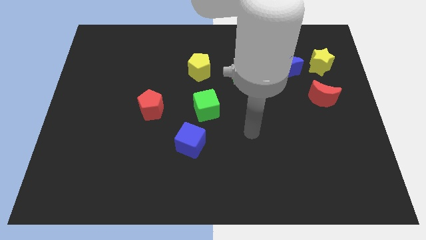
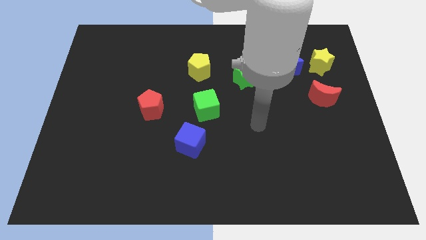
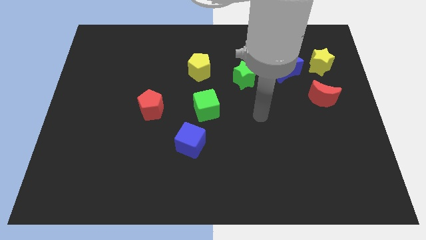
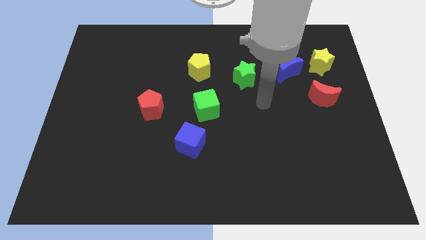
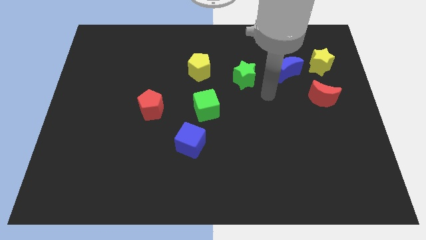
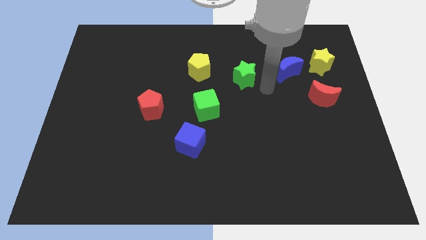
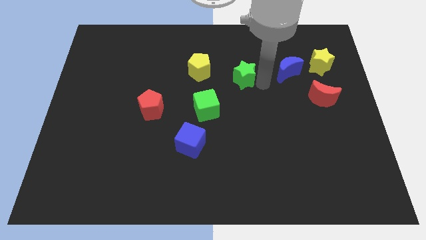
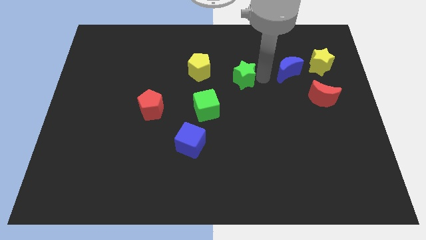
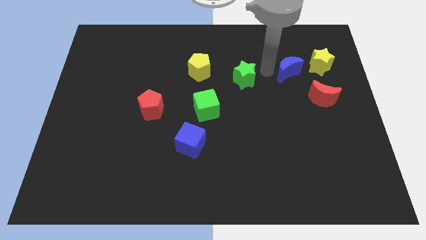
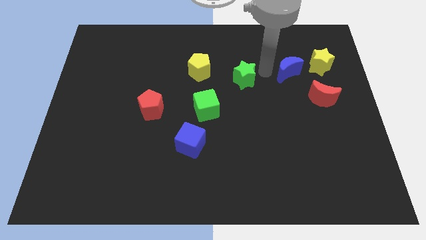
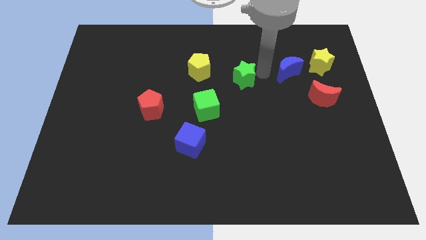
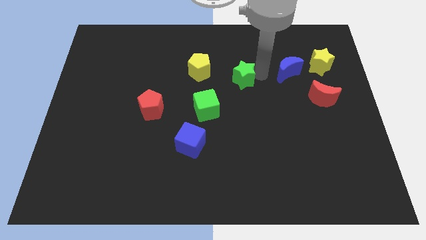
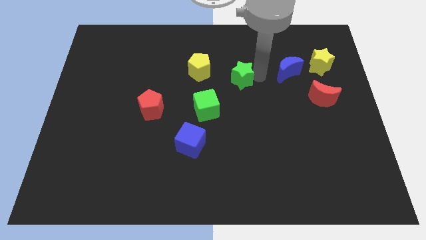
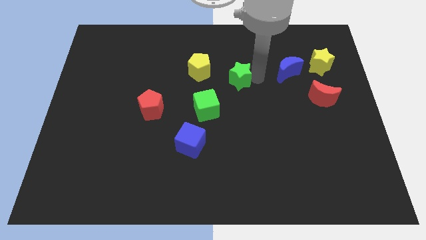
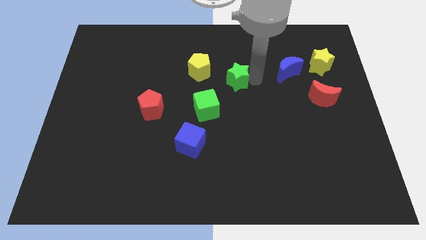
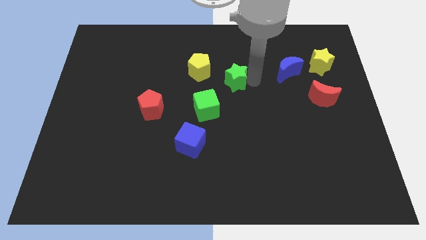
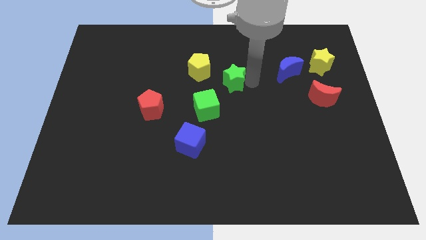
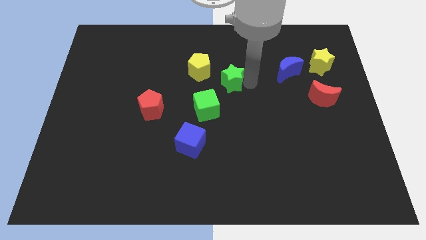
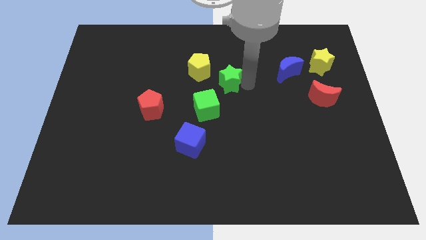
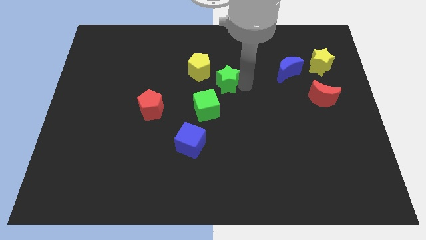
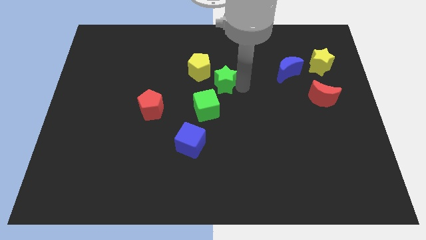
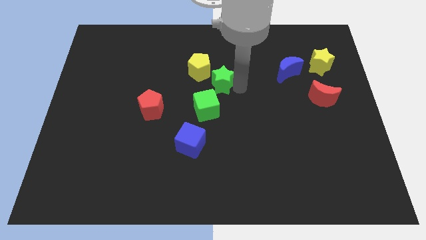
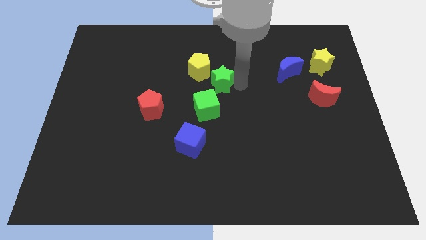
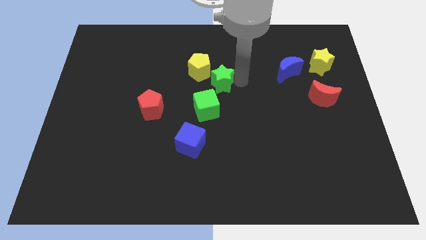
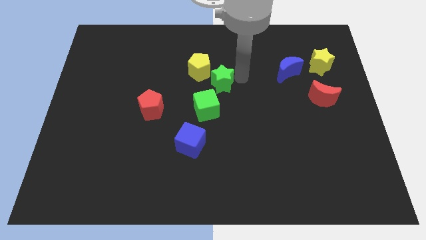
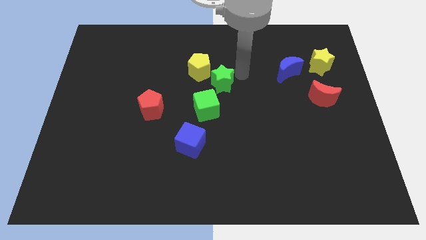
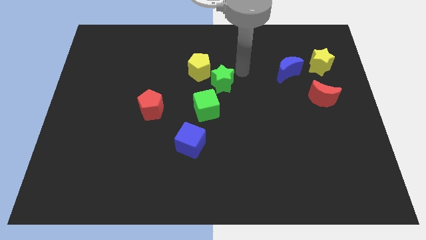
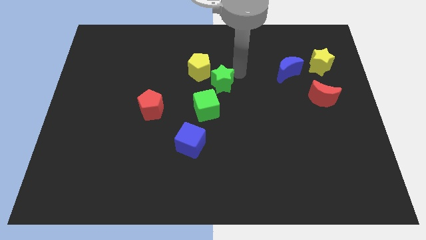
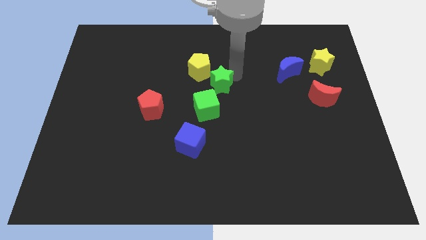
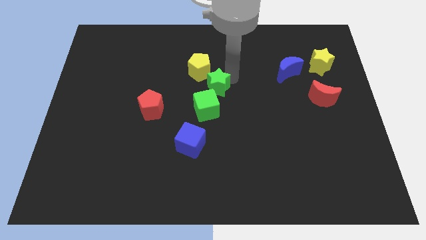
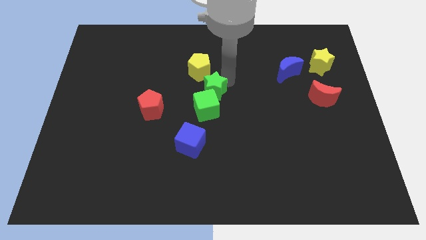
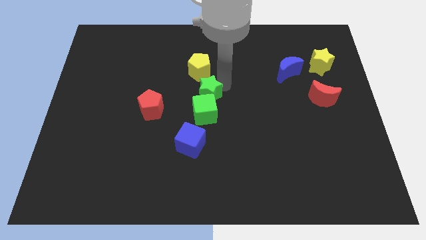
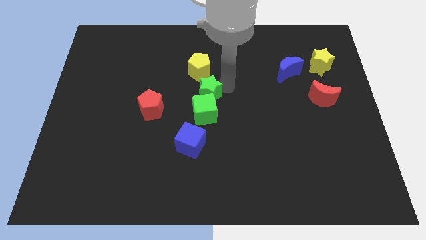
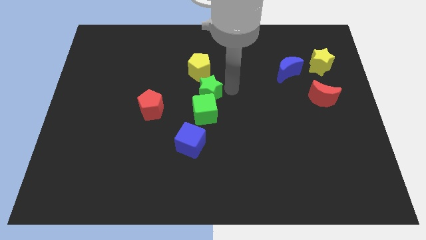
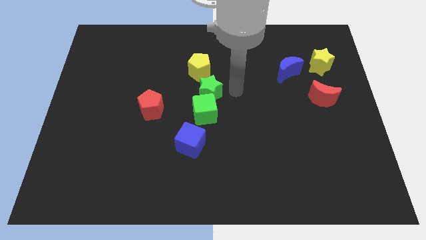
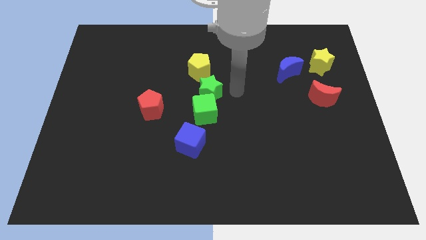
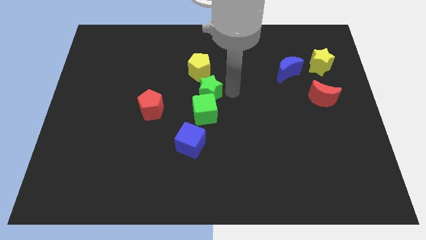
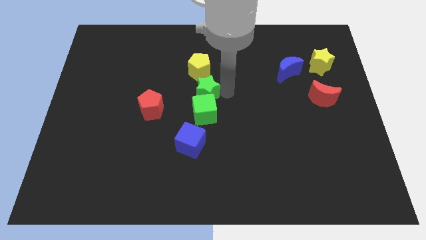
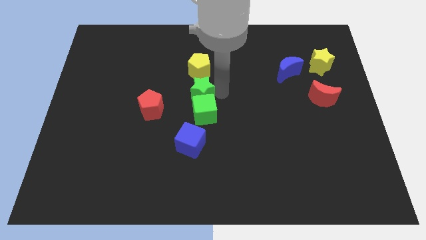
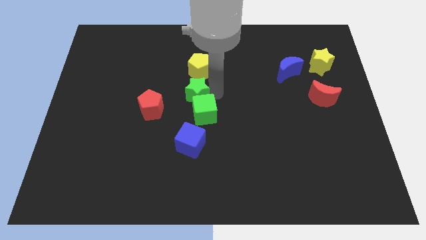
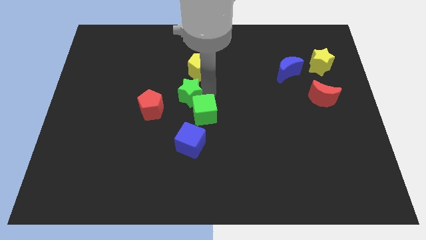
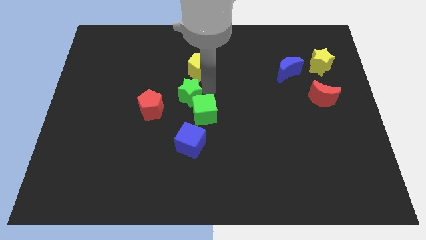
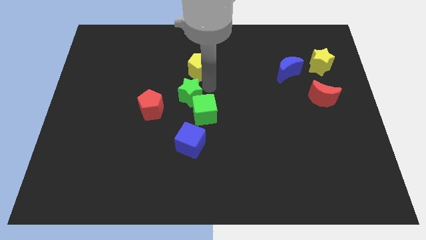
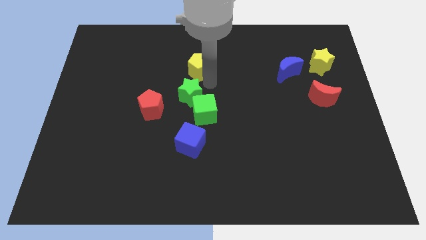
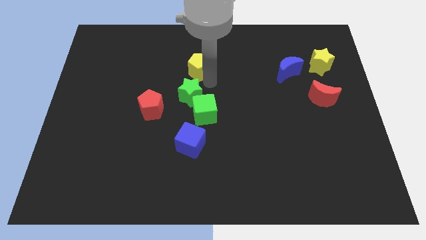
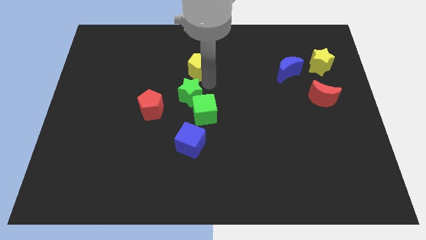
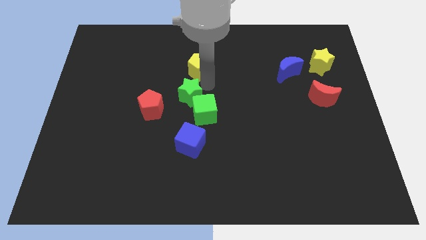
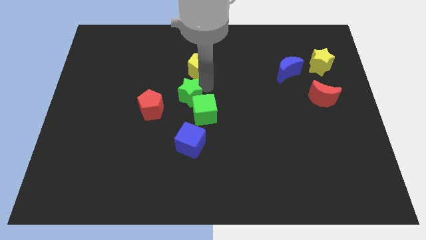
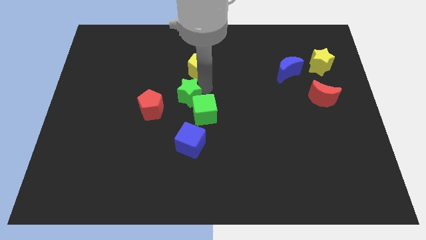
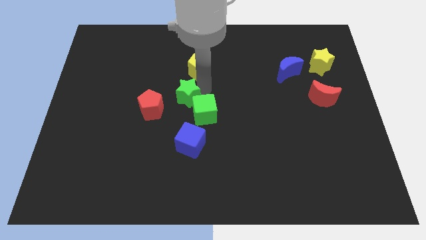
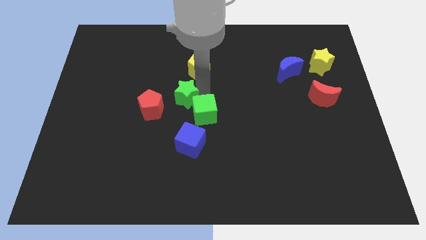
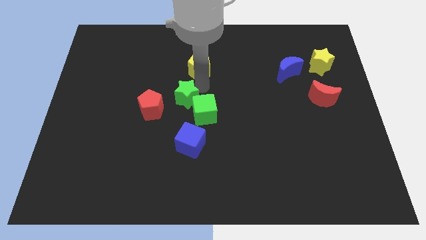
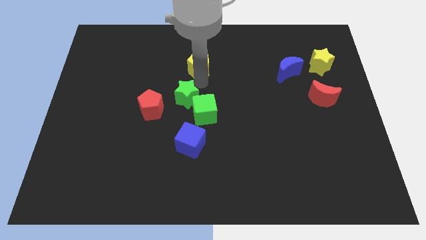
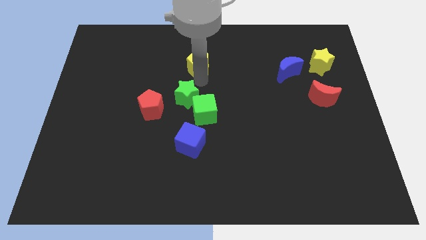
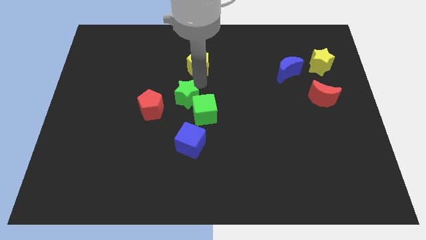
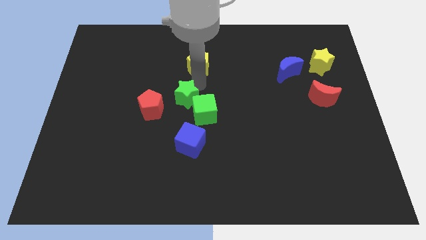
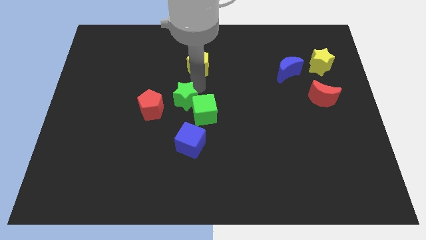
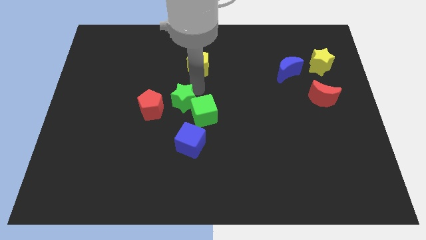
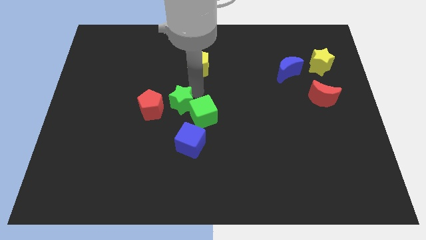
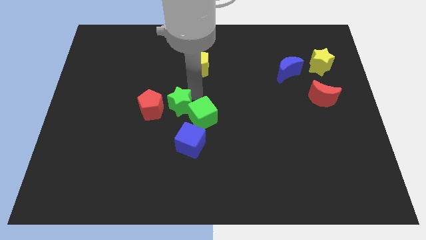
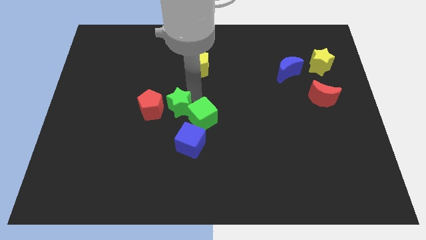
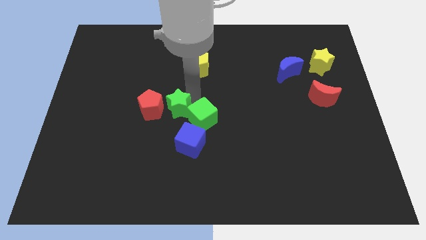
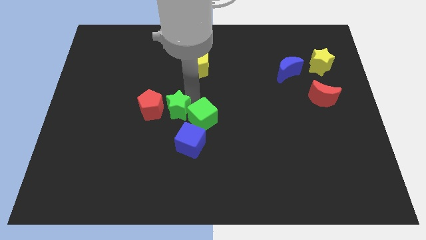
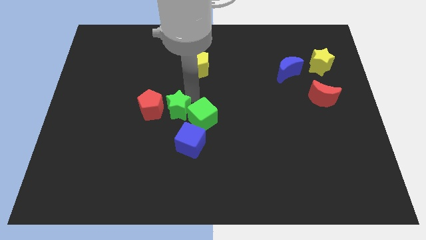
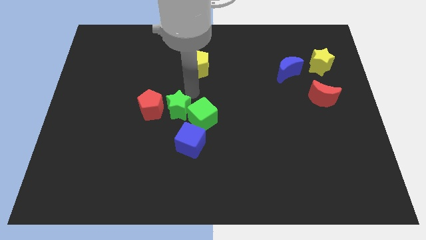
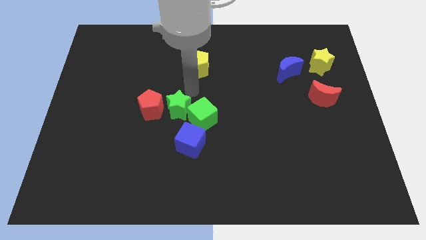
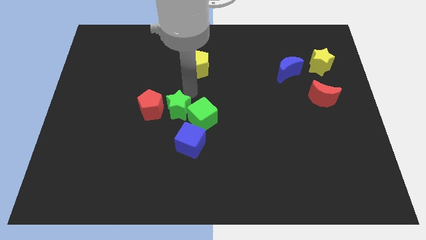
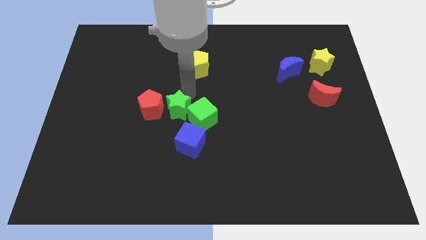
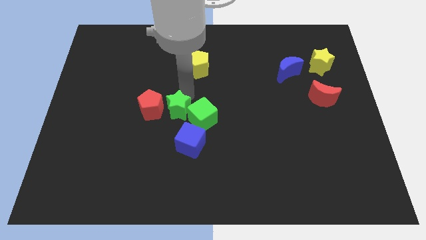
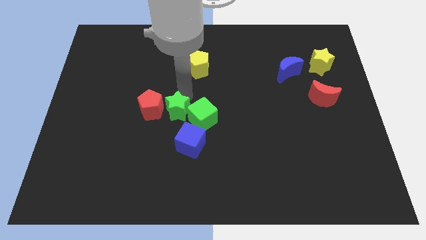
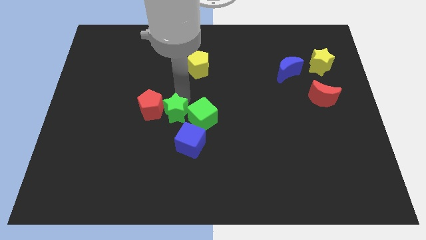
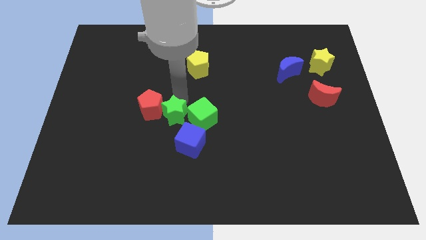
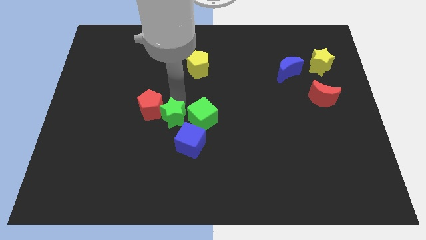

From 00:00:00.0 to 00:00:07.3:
move the green star down and to the left diagonally
